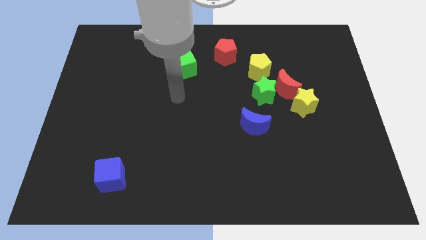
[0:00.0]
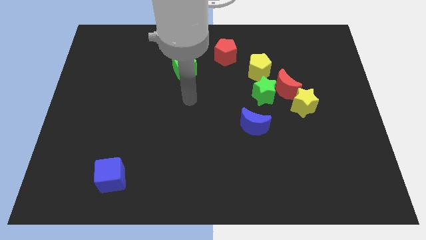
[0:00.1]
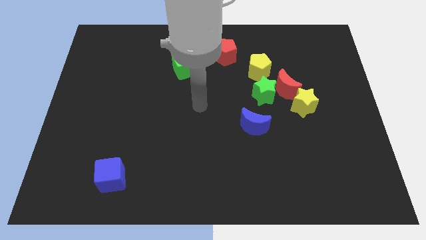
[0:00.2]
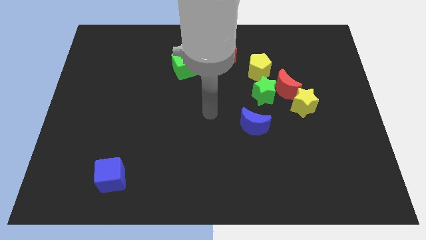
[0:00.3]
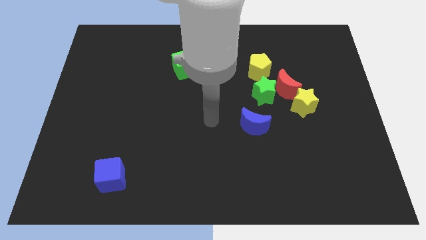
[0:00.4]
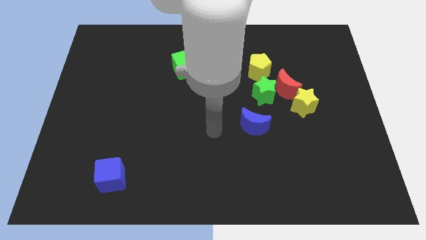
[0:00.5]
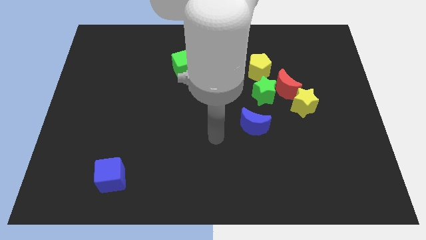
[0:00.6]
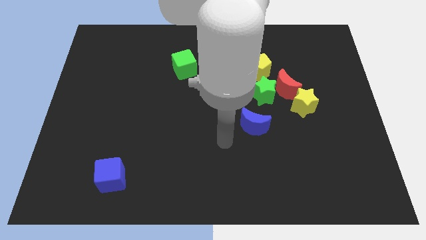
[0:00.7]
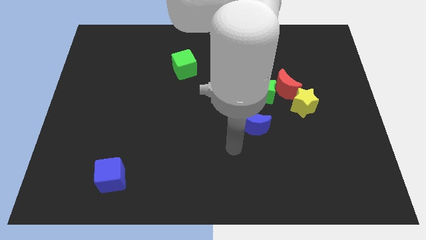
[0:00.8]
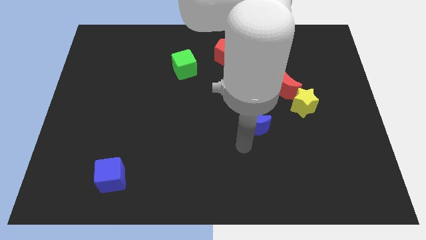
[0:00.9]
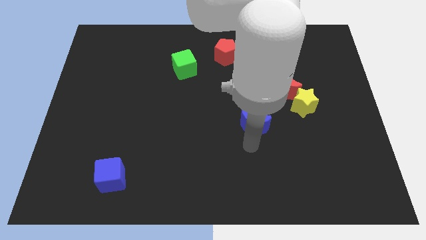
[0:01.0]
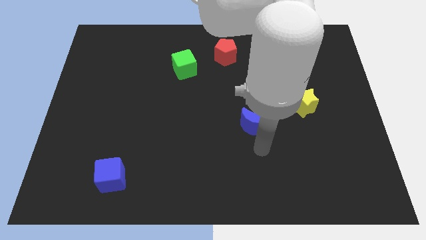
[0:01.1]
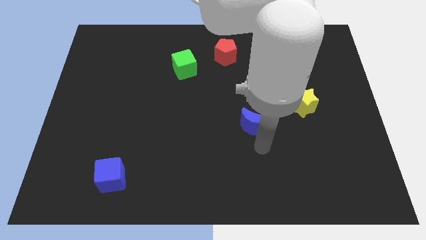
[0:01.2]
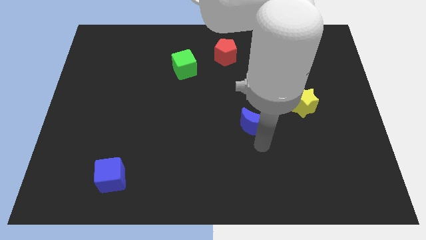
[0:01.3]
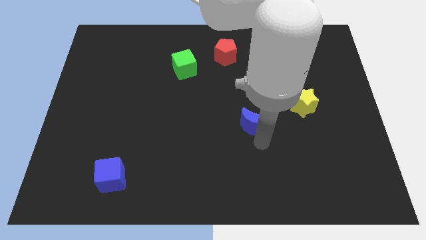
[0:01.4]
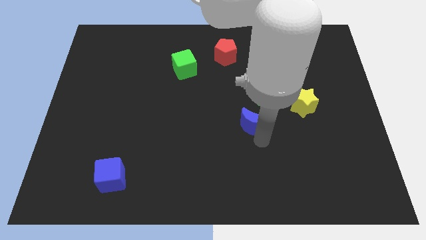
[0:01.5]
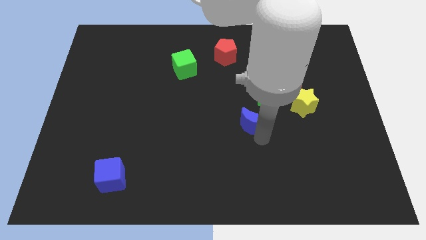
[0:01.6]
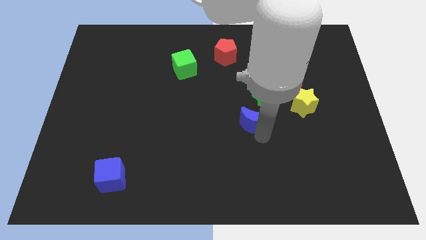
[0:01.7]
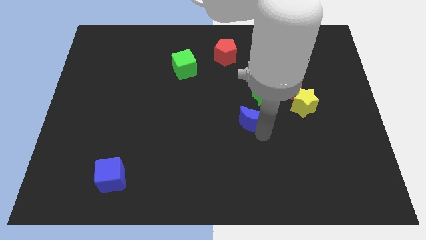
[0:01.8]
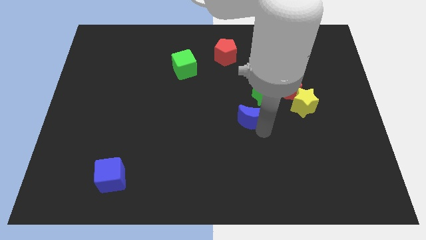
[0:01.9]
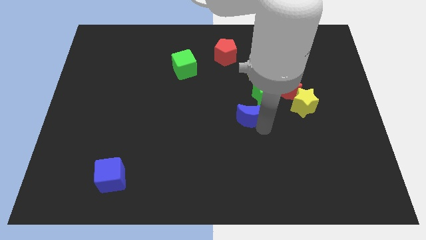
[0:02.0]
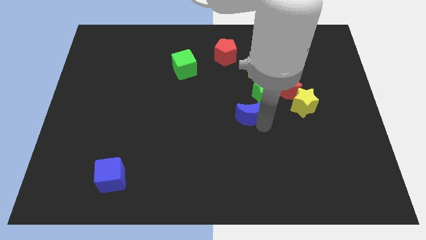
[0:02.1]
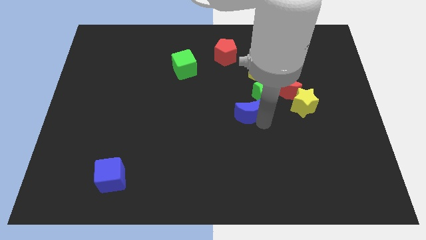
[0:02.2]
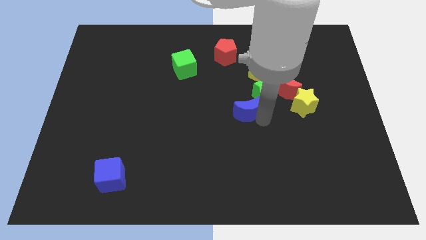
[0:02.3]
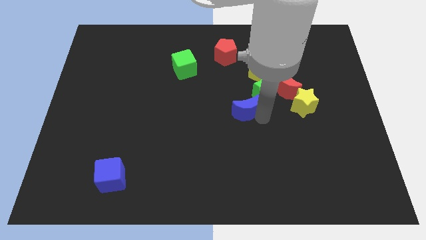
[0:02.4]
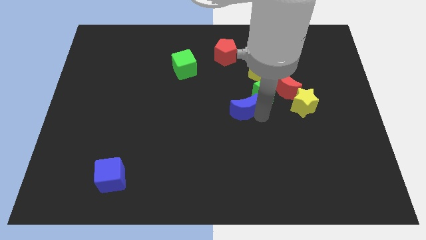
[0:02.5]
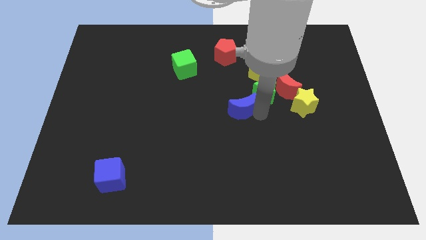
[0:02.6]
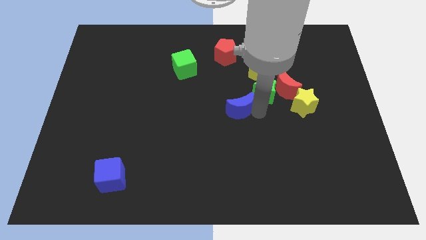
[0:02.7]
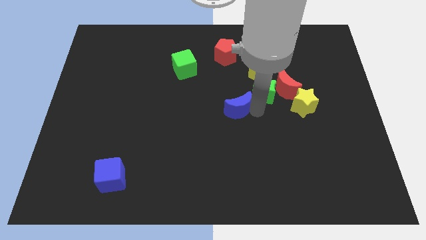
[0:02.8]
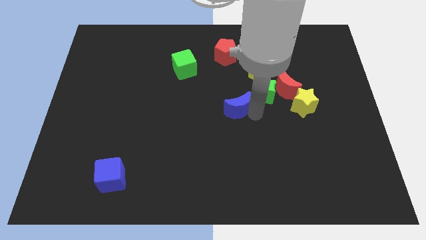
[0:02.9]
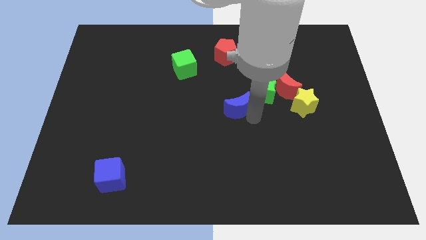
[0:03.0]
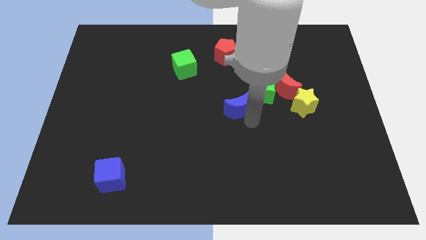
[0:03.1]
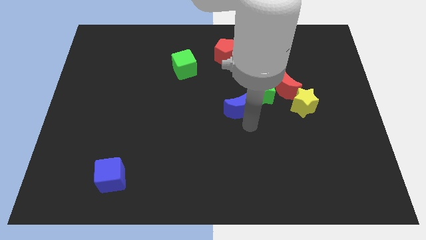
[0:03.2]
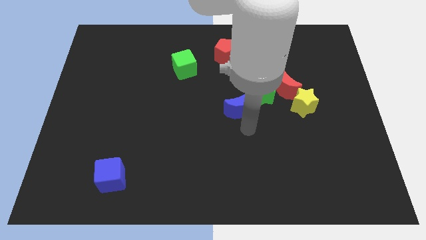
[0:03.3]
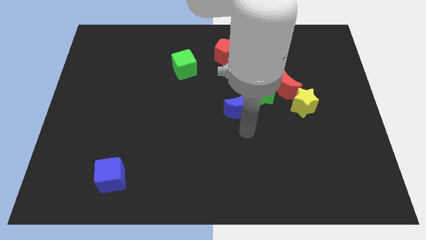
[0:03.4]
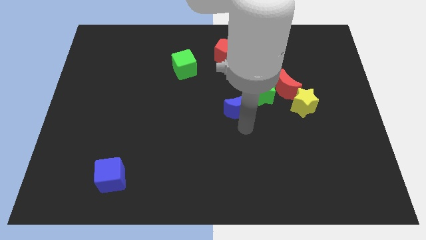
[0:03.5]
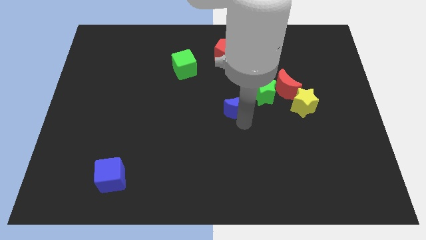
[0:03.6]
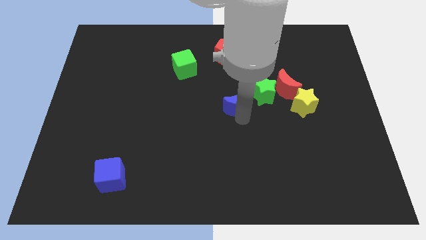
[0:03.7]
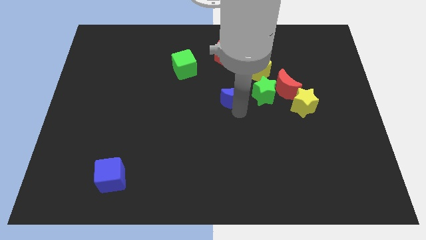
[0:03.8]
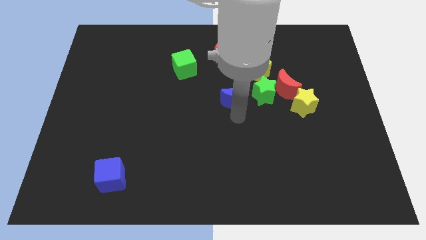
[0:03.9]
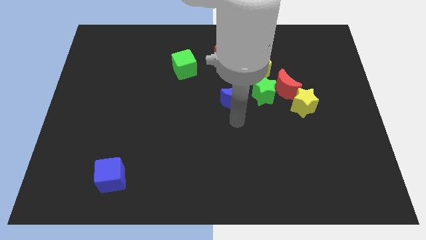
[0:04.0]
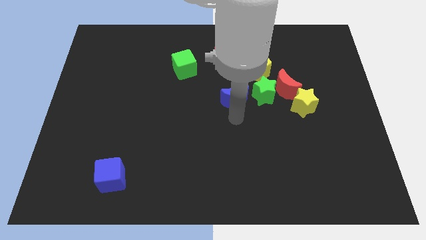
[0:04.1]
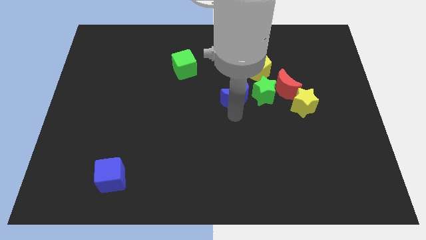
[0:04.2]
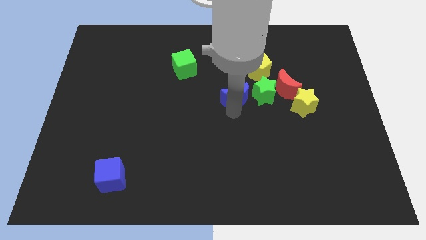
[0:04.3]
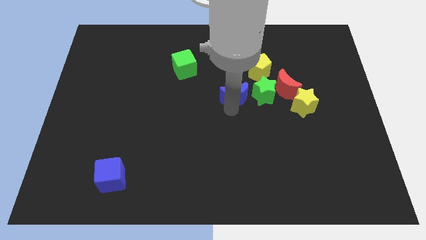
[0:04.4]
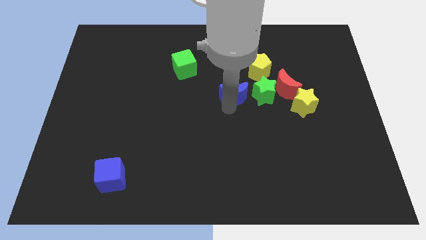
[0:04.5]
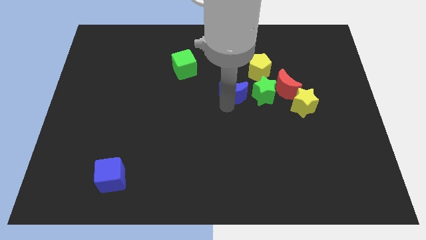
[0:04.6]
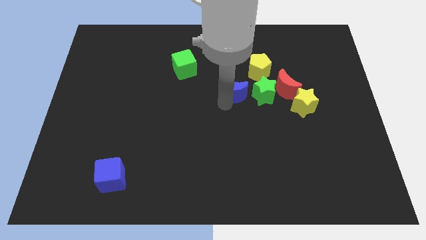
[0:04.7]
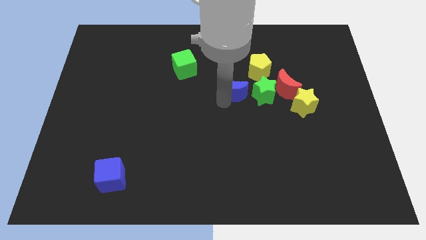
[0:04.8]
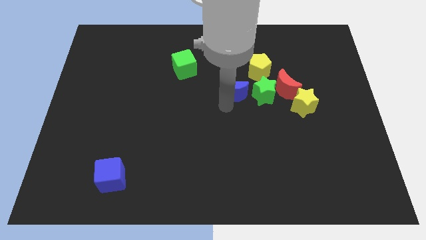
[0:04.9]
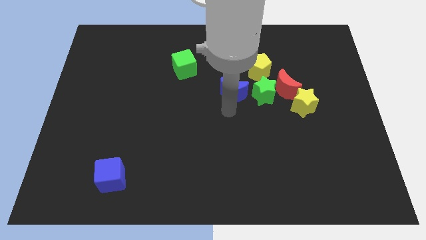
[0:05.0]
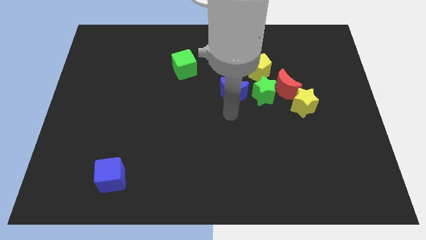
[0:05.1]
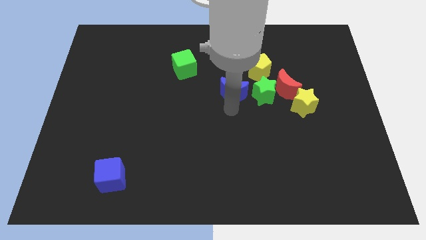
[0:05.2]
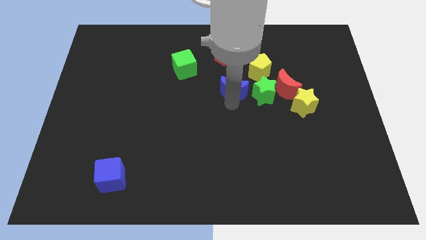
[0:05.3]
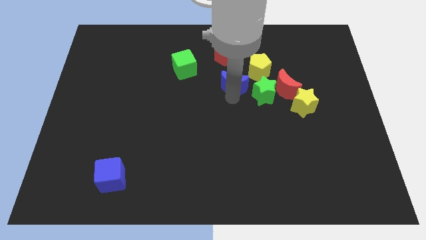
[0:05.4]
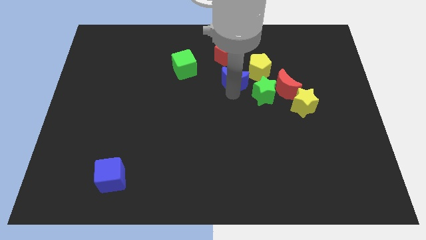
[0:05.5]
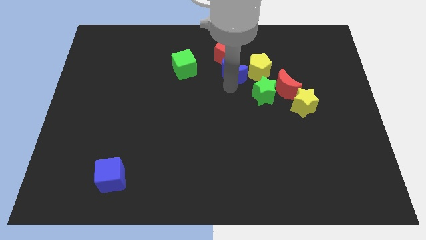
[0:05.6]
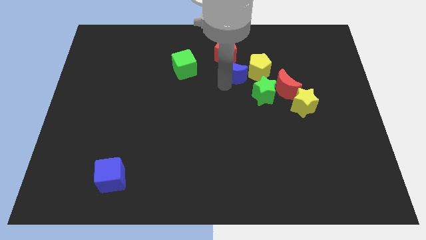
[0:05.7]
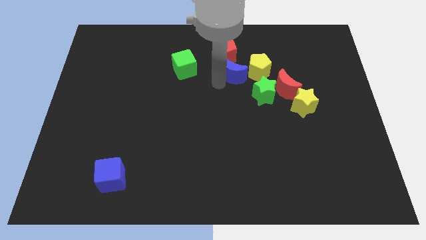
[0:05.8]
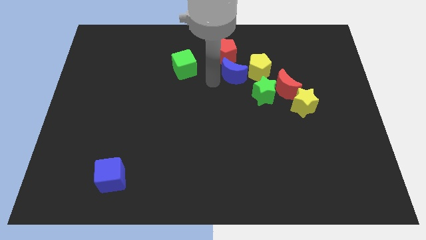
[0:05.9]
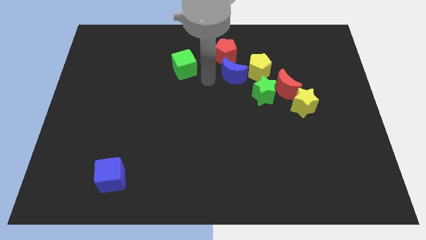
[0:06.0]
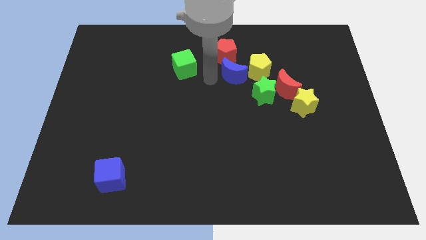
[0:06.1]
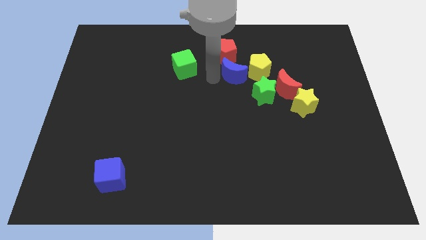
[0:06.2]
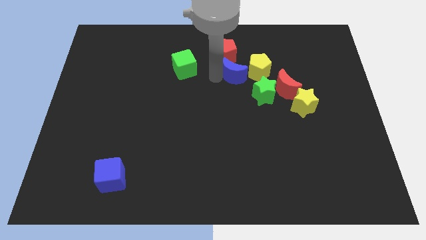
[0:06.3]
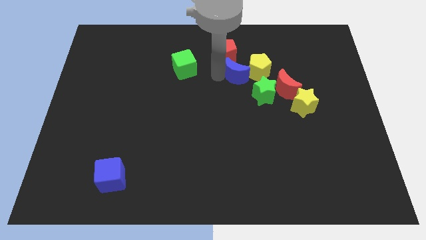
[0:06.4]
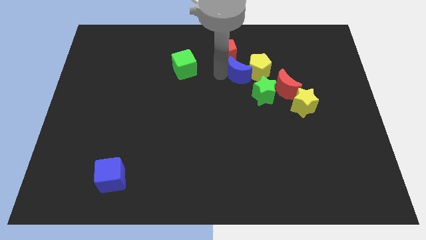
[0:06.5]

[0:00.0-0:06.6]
slide the blue moon to the yellow pentagon

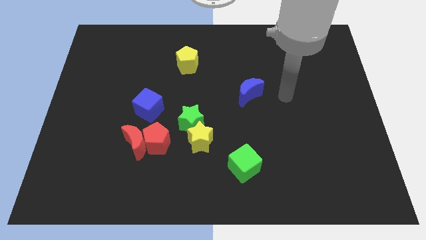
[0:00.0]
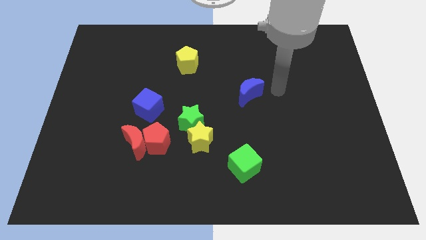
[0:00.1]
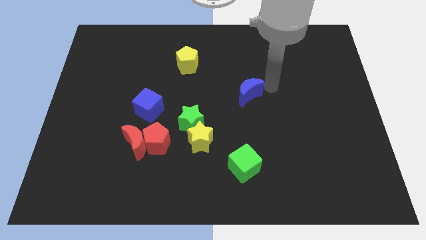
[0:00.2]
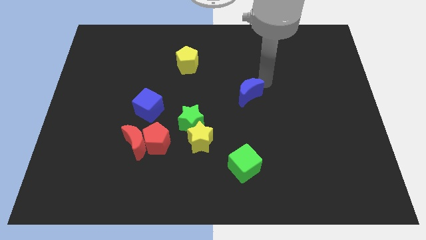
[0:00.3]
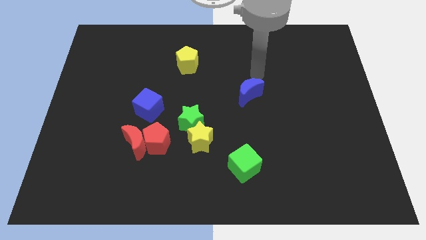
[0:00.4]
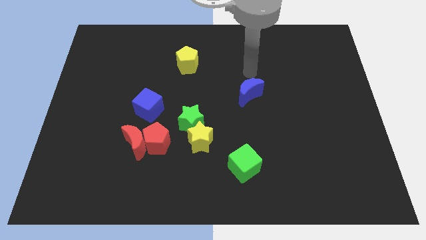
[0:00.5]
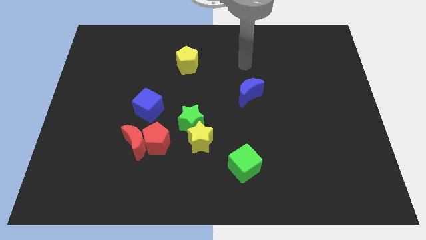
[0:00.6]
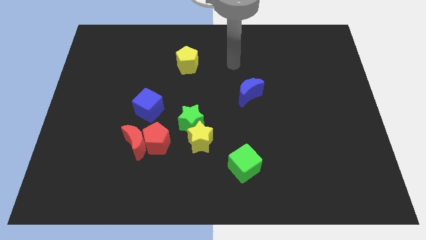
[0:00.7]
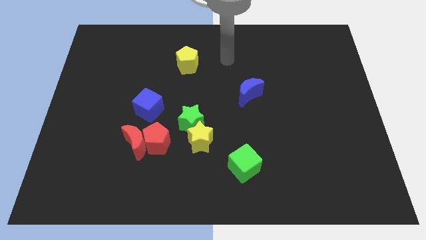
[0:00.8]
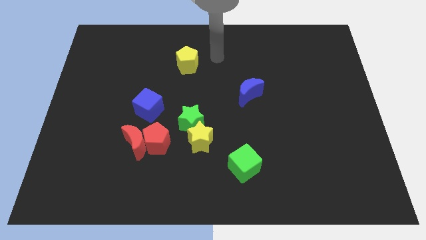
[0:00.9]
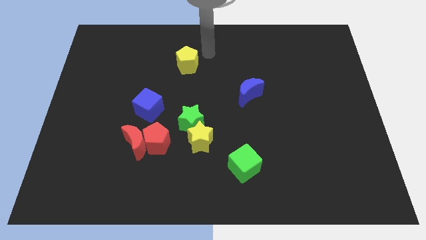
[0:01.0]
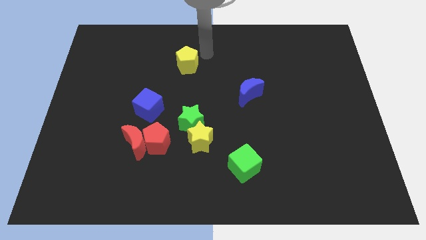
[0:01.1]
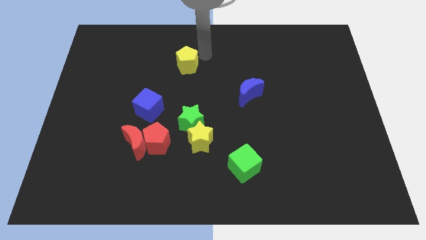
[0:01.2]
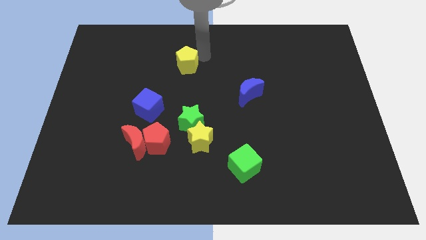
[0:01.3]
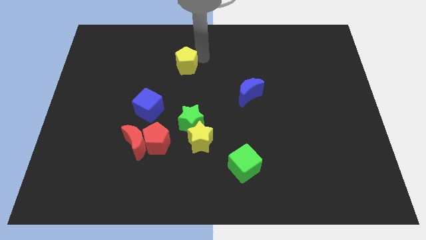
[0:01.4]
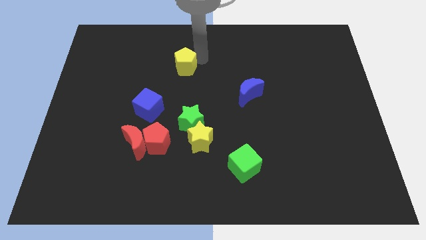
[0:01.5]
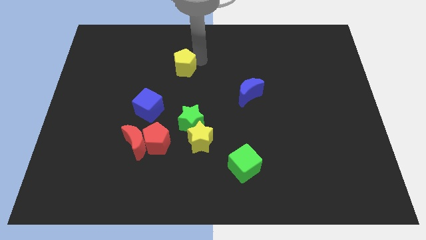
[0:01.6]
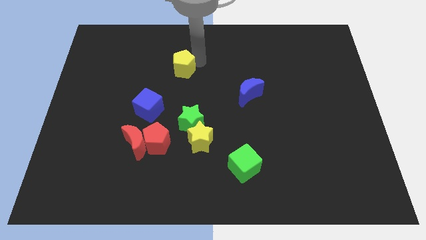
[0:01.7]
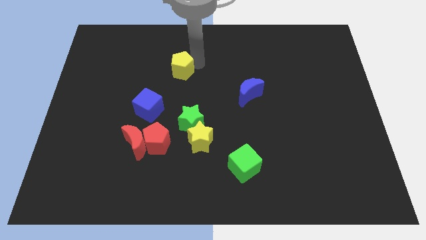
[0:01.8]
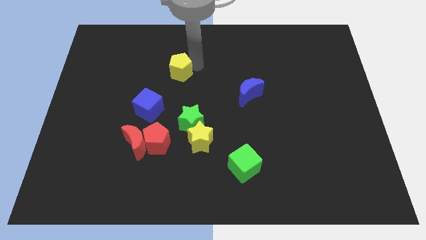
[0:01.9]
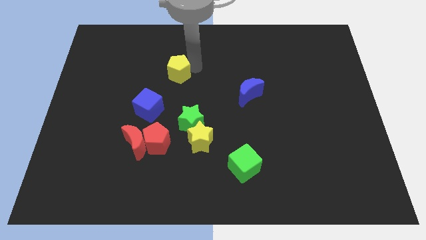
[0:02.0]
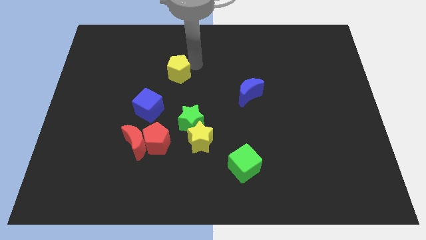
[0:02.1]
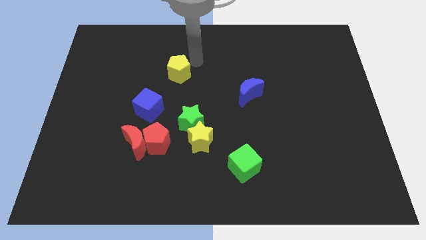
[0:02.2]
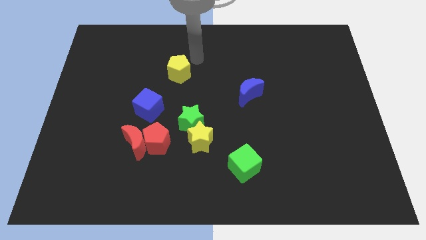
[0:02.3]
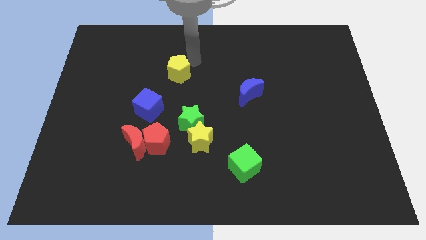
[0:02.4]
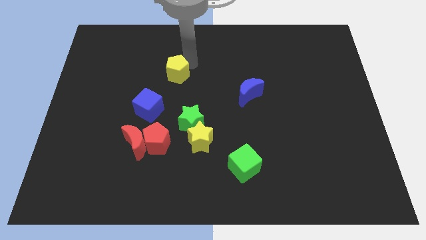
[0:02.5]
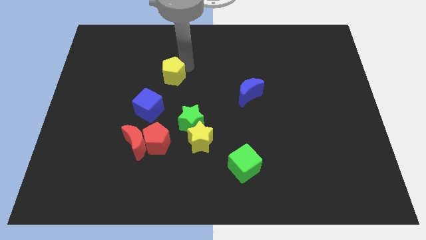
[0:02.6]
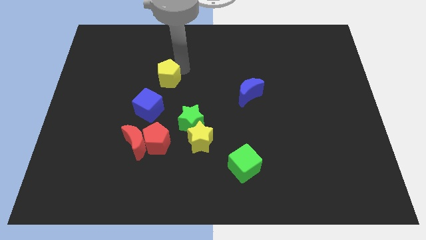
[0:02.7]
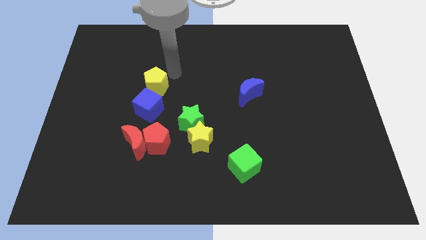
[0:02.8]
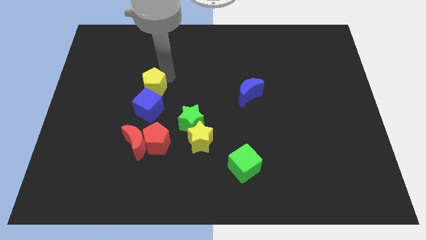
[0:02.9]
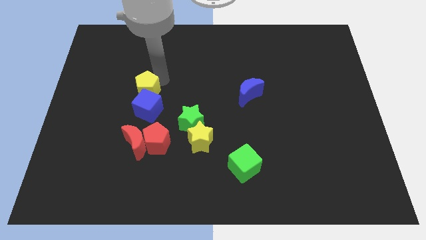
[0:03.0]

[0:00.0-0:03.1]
put the yellow pentagon close to the blue cube
